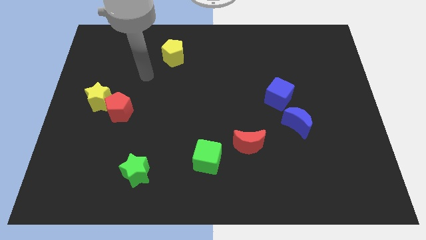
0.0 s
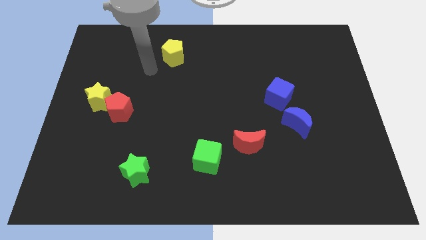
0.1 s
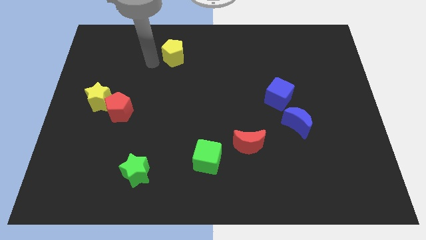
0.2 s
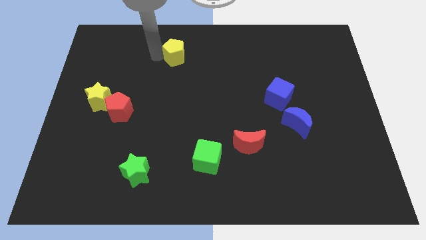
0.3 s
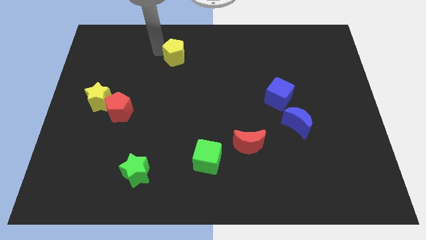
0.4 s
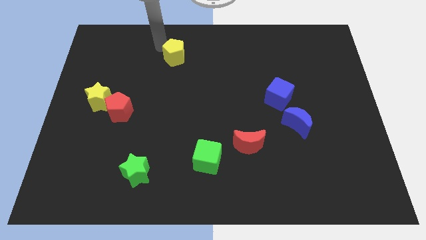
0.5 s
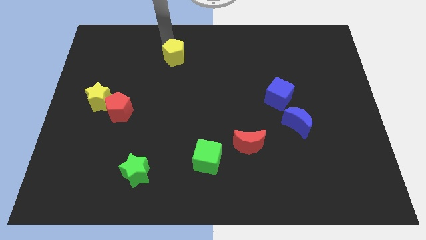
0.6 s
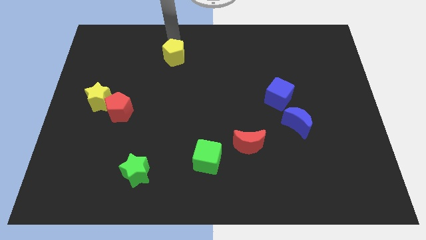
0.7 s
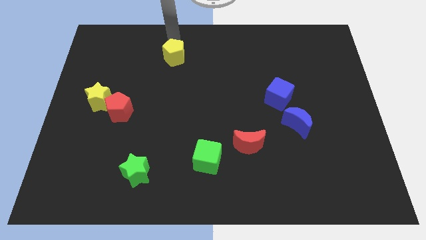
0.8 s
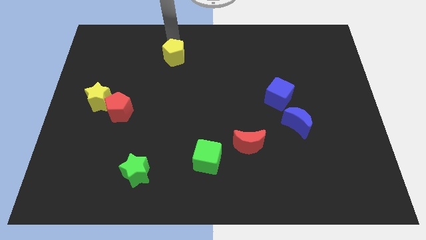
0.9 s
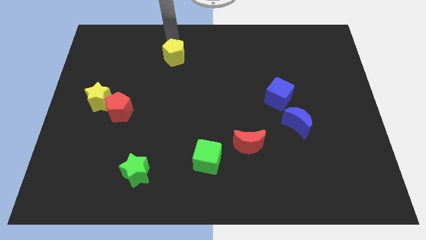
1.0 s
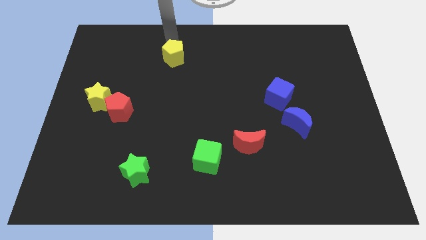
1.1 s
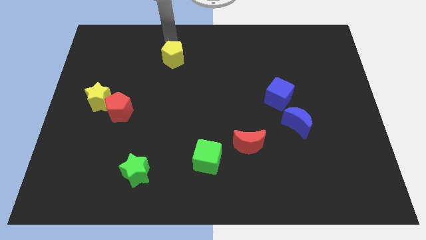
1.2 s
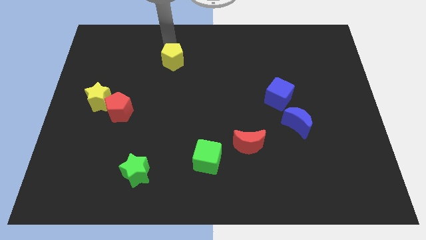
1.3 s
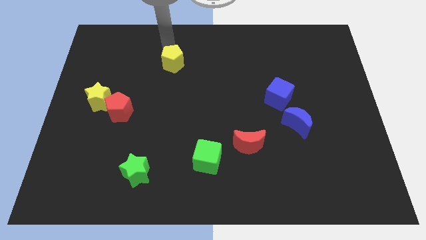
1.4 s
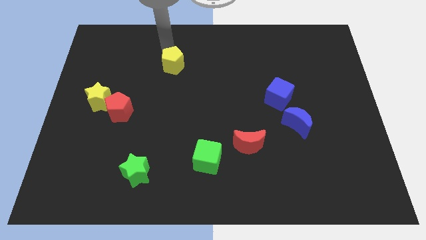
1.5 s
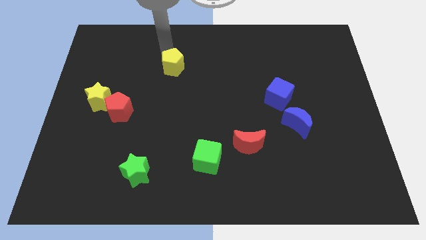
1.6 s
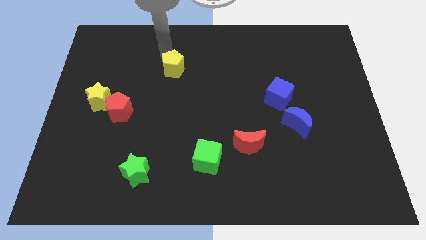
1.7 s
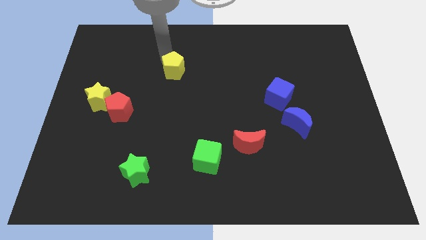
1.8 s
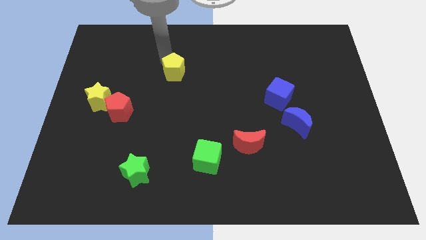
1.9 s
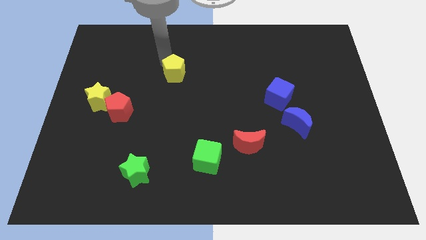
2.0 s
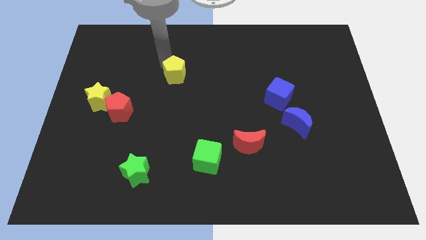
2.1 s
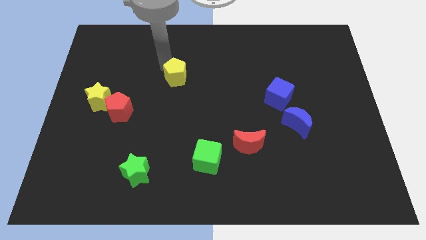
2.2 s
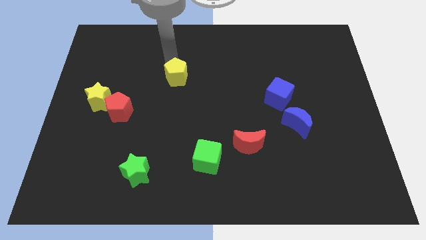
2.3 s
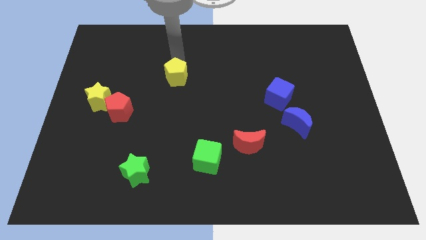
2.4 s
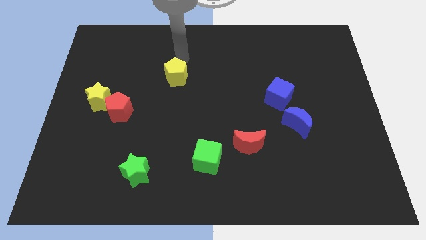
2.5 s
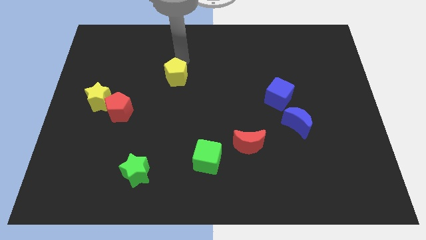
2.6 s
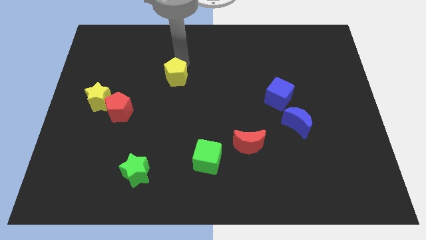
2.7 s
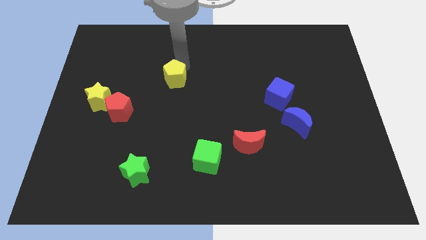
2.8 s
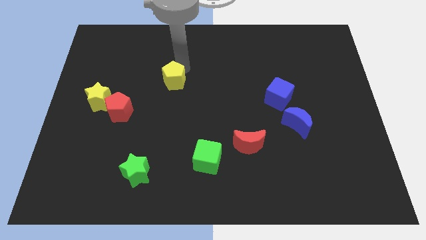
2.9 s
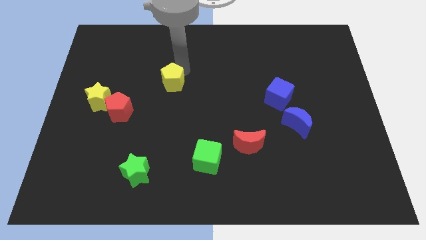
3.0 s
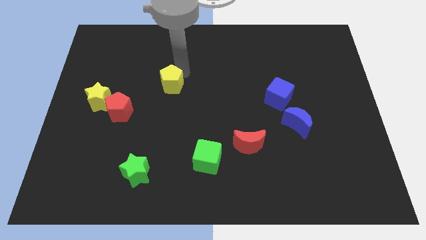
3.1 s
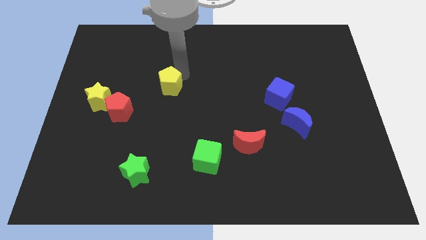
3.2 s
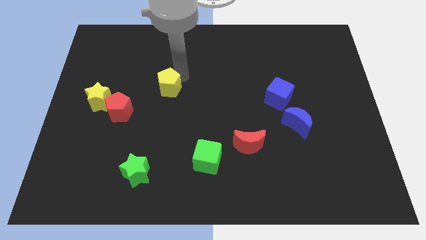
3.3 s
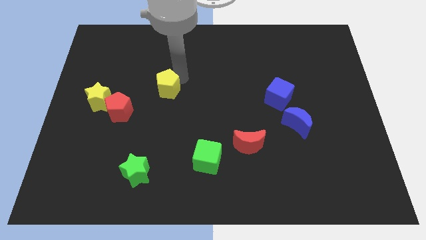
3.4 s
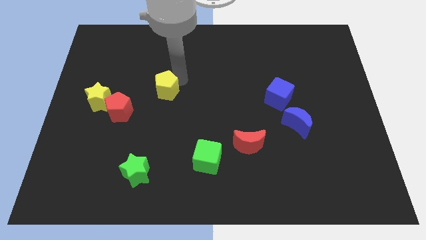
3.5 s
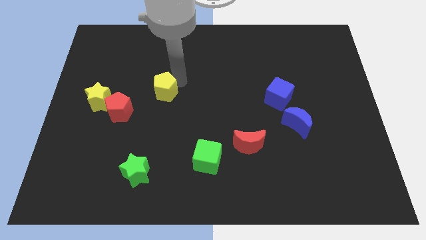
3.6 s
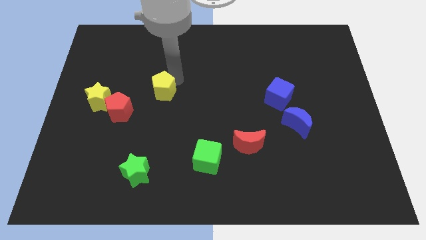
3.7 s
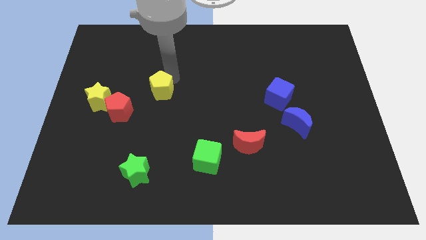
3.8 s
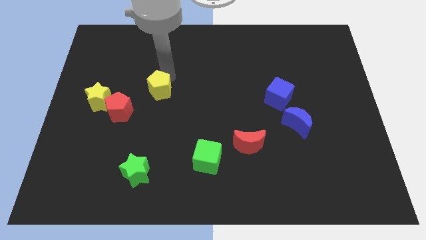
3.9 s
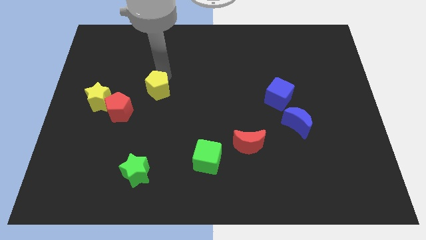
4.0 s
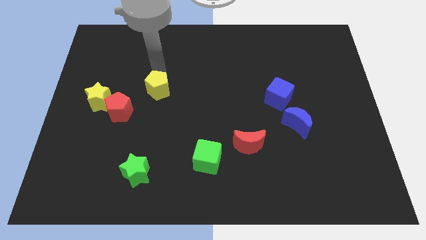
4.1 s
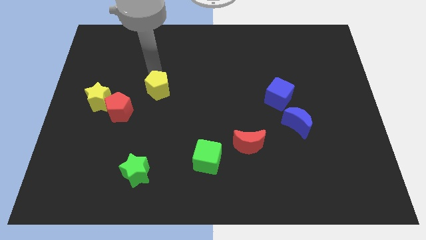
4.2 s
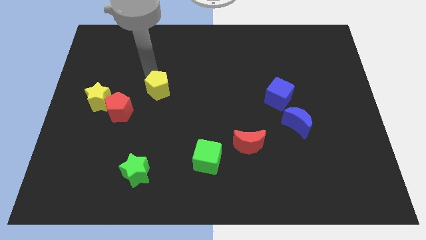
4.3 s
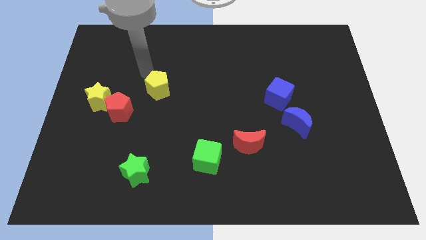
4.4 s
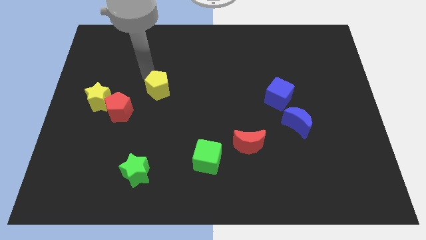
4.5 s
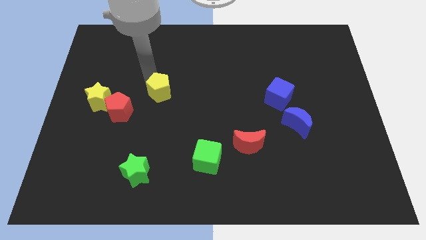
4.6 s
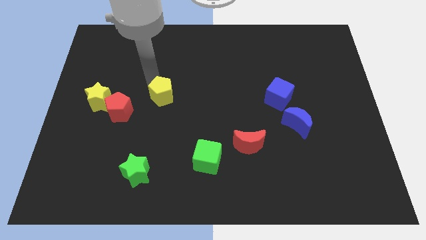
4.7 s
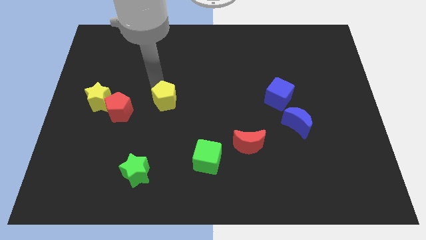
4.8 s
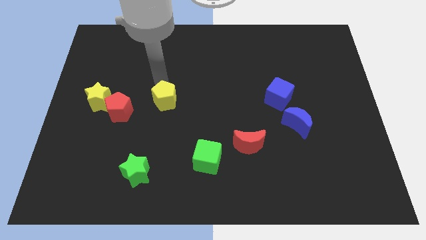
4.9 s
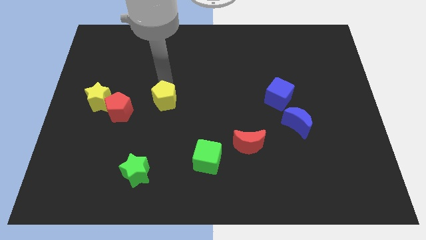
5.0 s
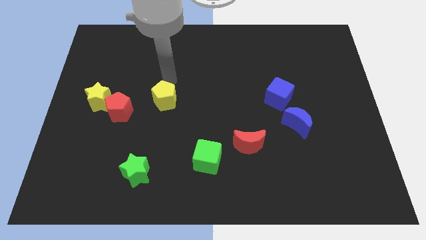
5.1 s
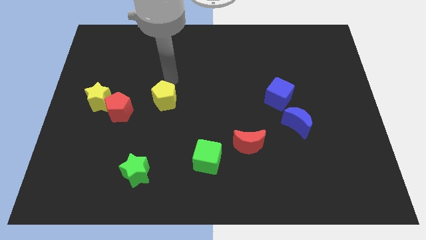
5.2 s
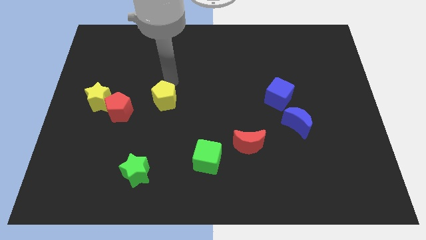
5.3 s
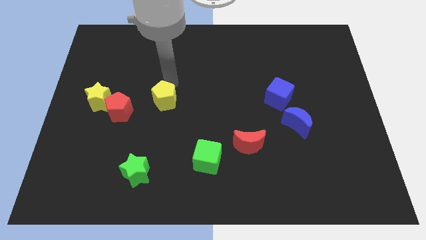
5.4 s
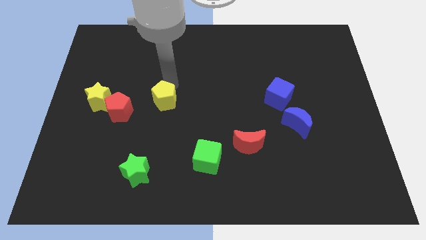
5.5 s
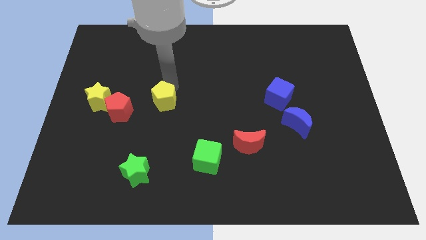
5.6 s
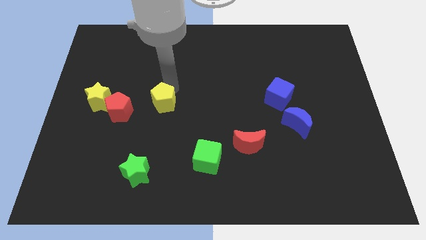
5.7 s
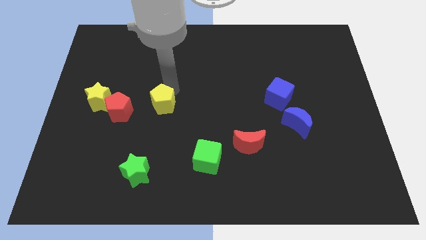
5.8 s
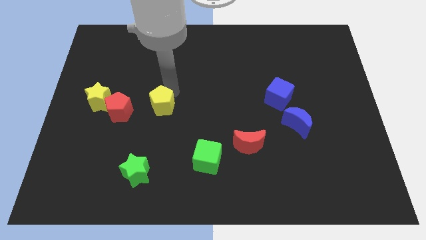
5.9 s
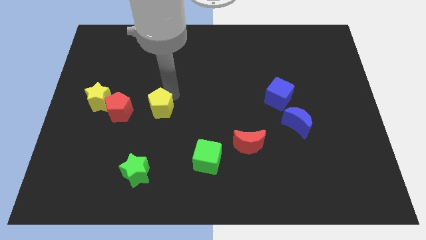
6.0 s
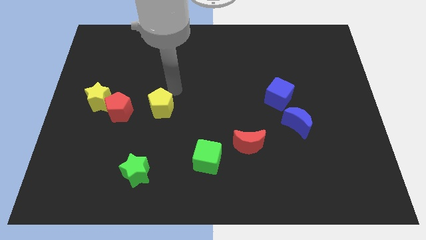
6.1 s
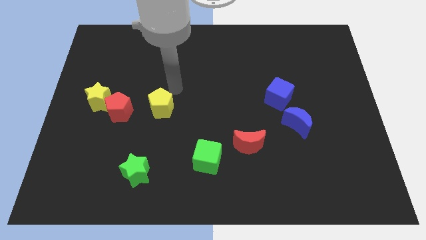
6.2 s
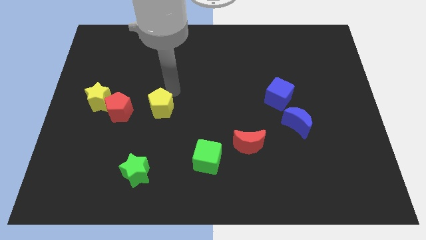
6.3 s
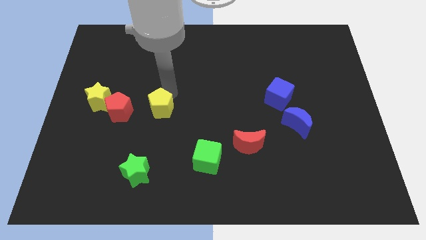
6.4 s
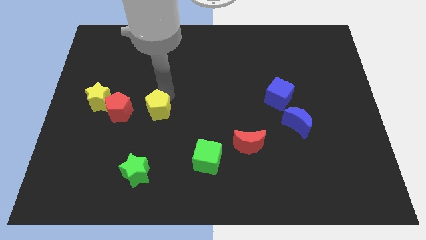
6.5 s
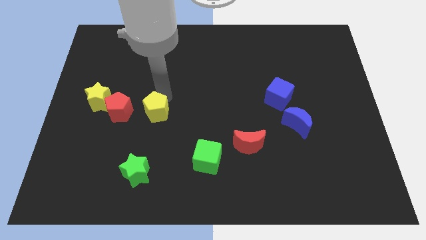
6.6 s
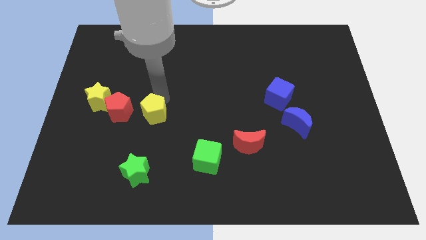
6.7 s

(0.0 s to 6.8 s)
push the yellow pentagon to the top of the green star
